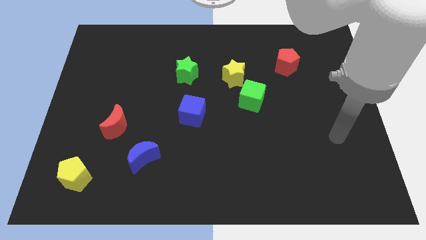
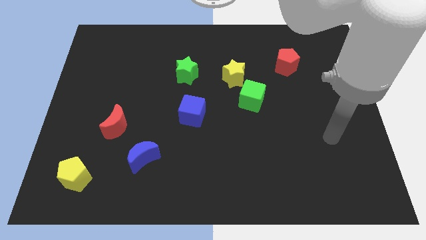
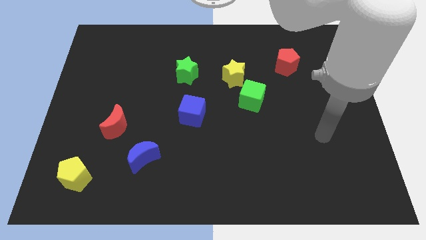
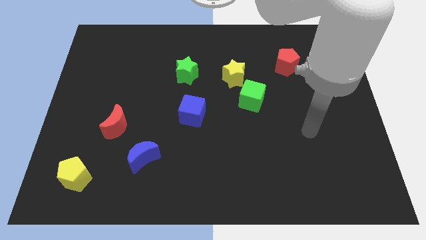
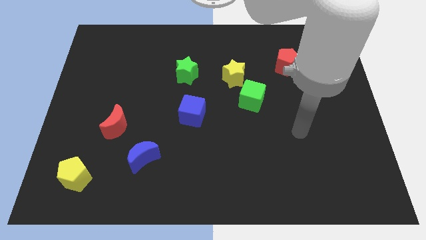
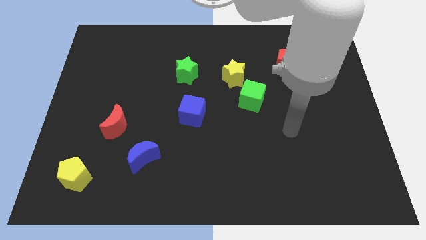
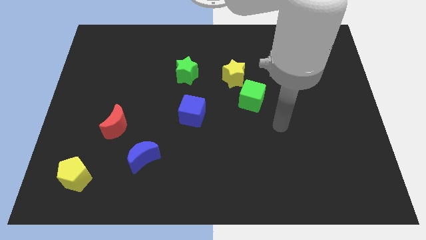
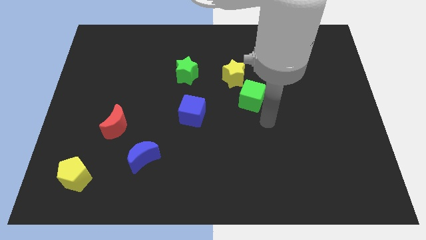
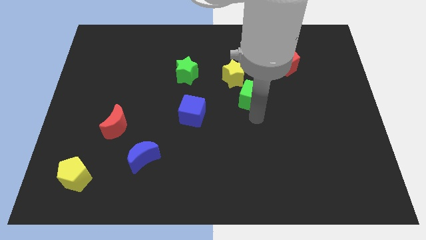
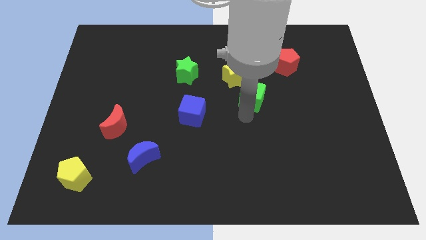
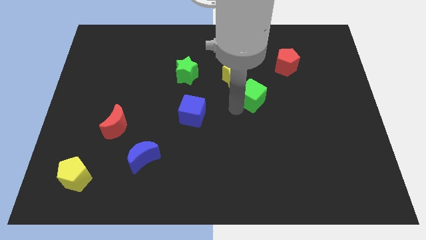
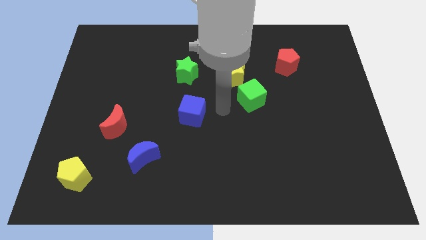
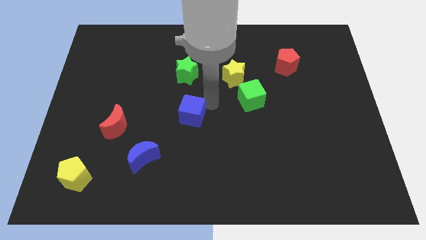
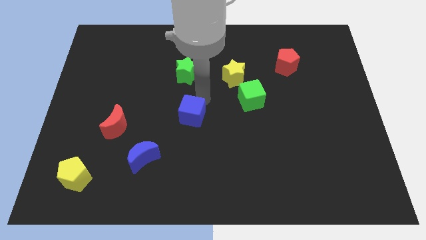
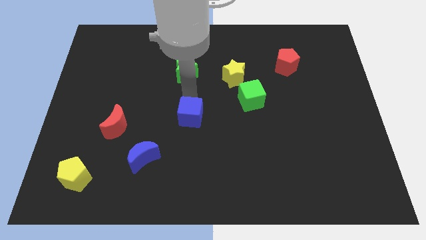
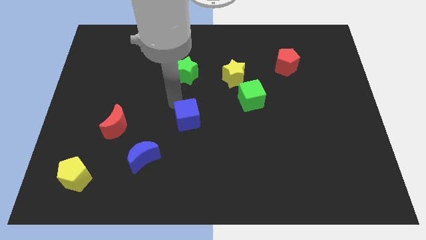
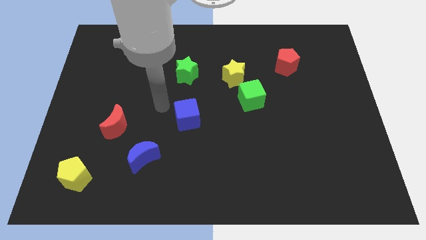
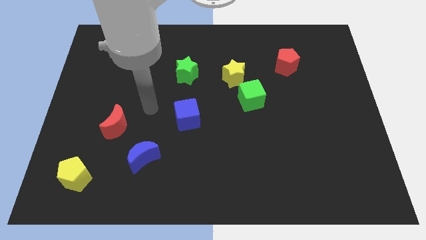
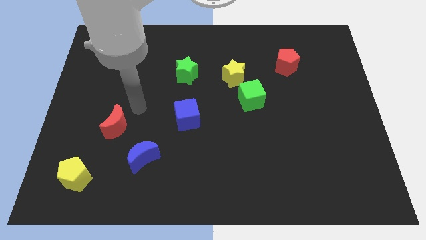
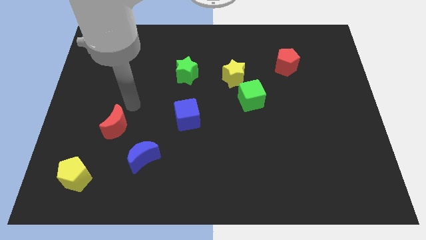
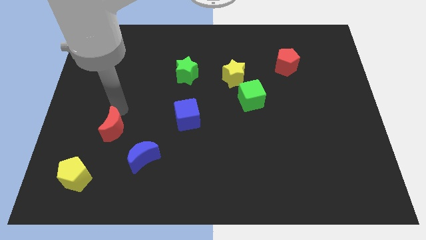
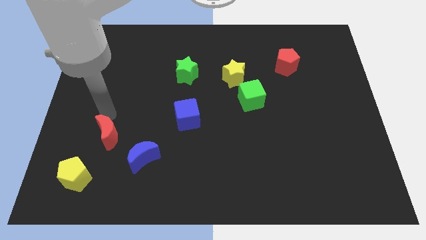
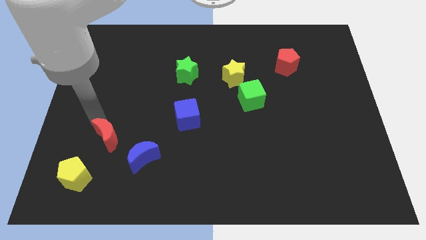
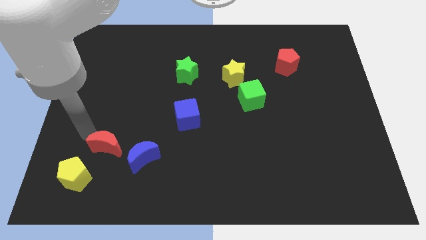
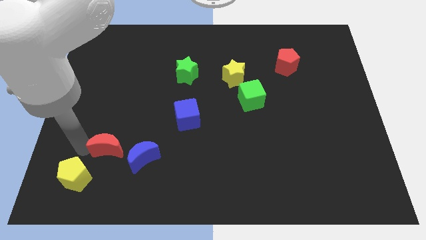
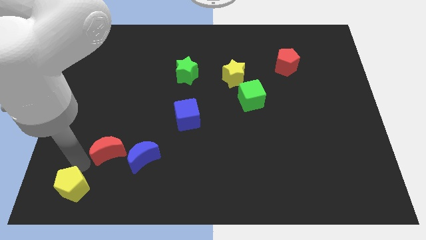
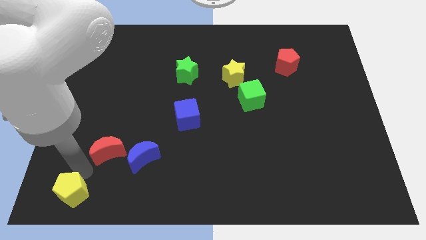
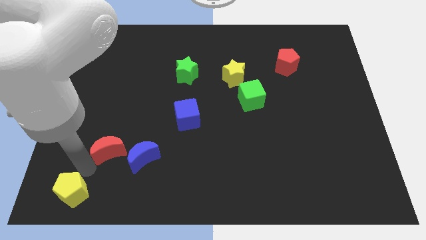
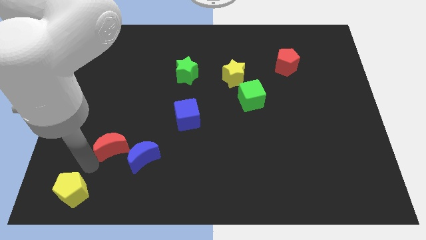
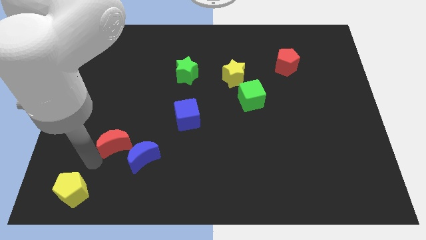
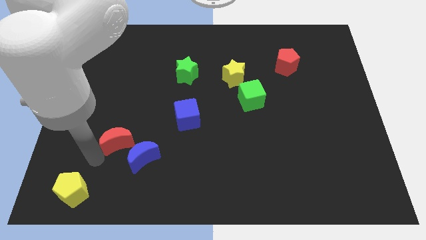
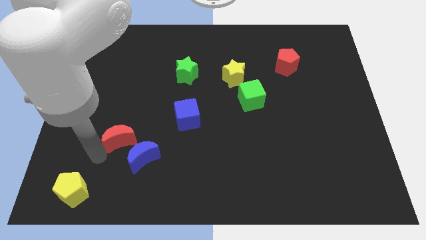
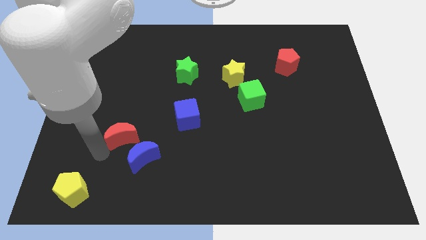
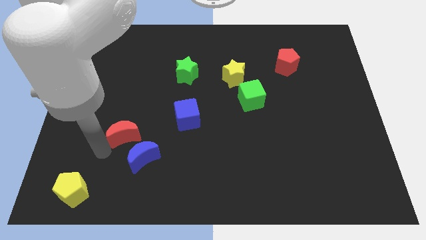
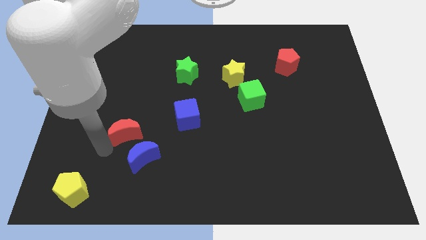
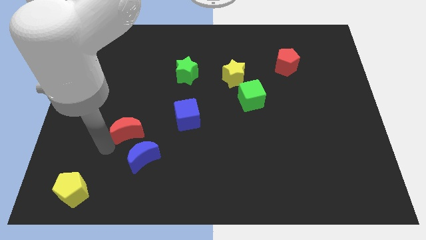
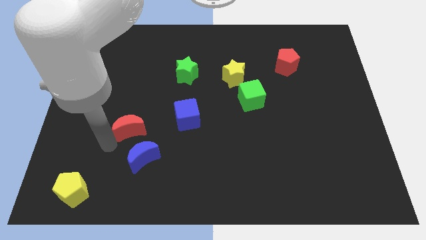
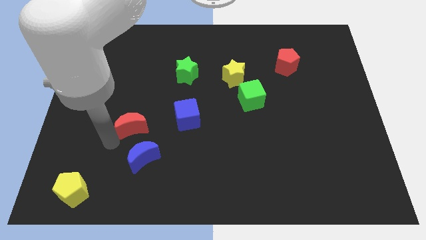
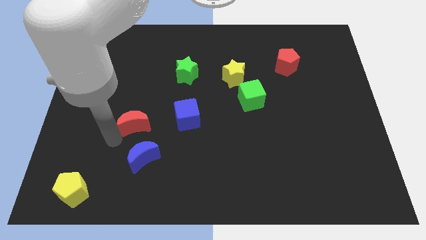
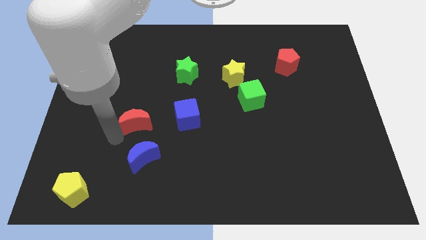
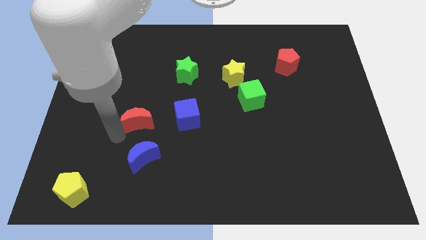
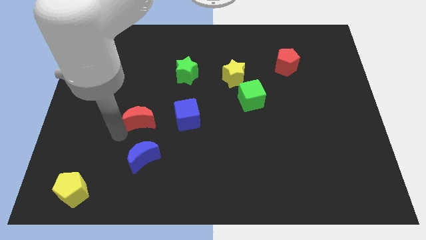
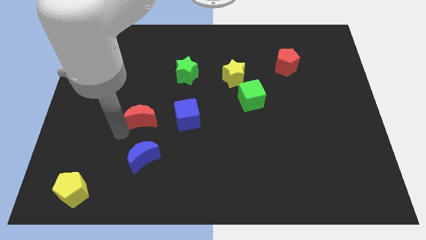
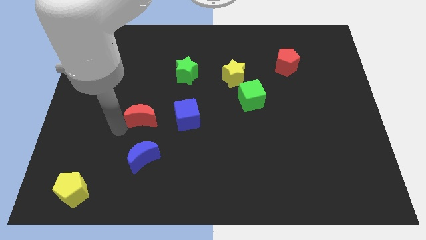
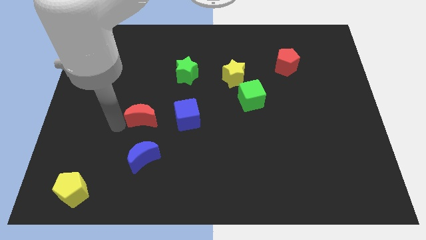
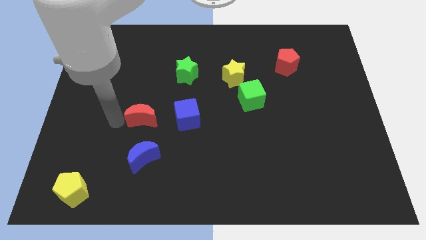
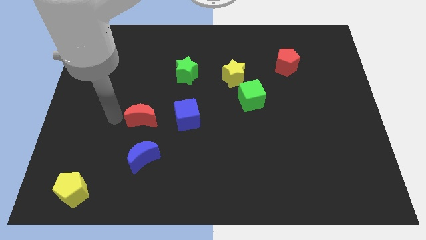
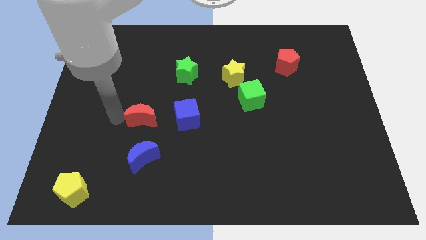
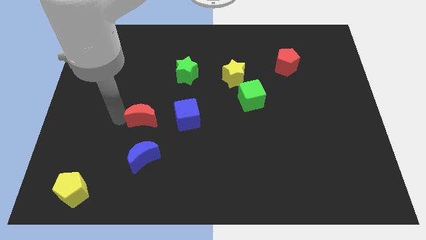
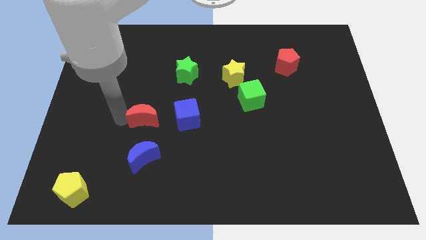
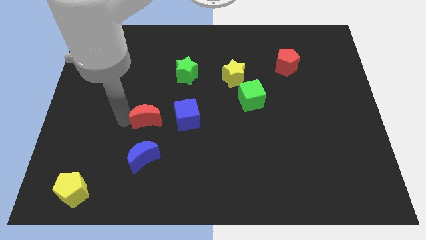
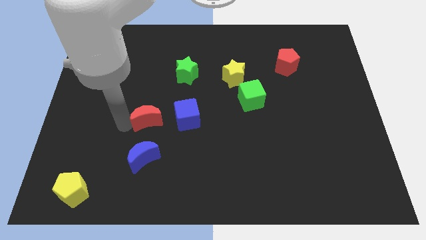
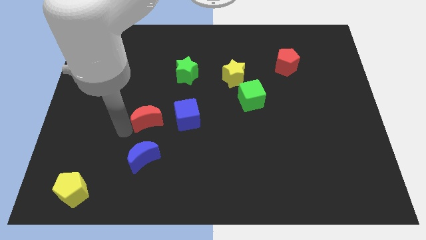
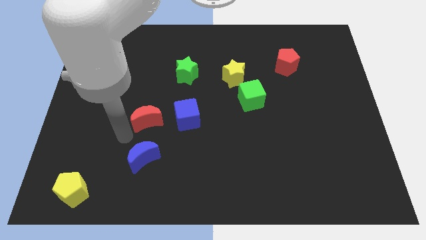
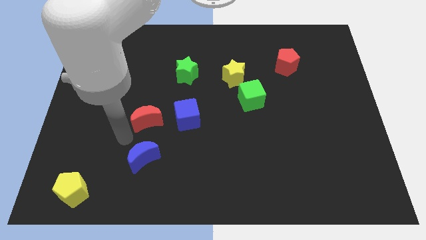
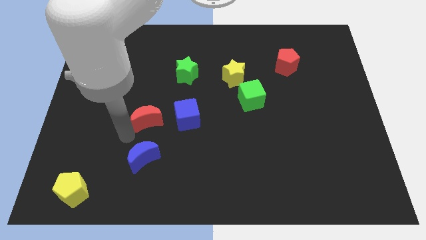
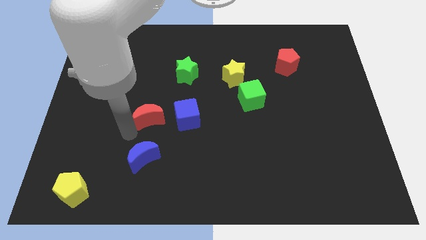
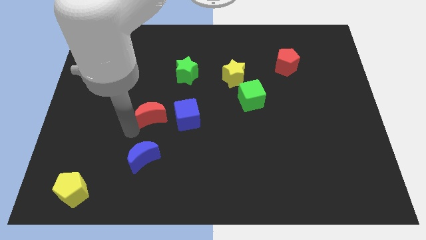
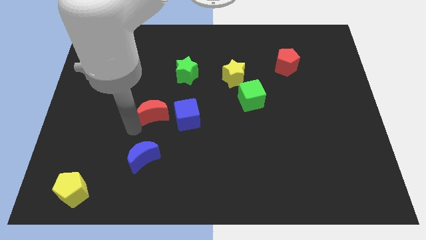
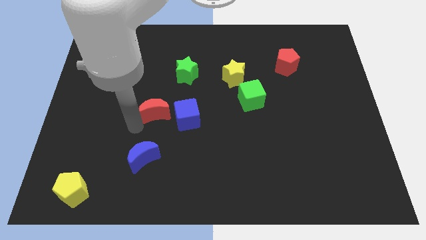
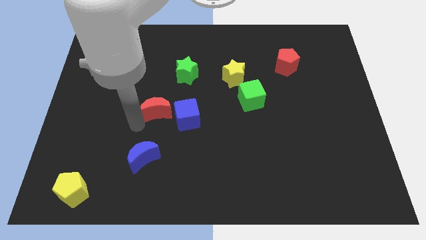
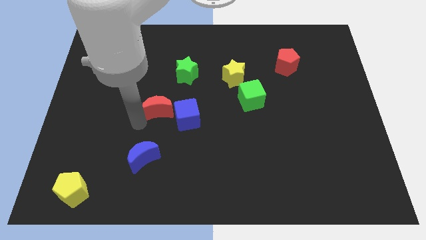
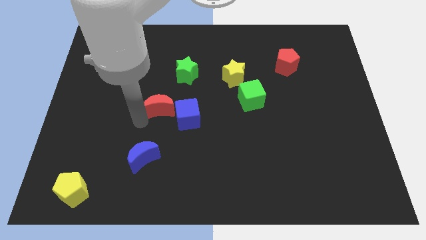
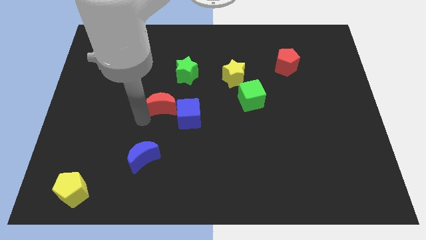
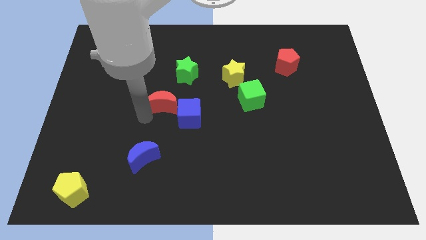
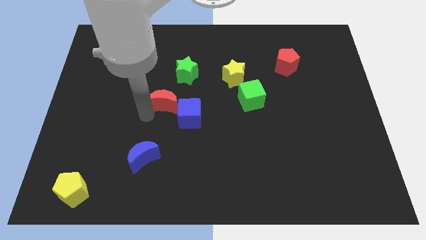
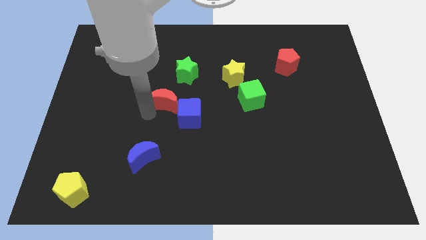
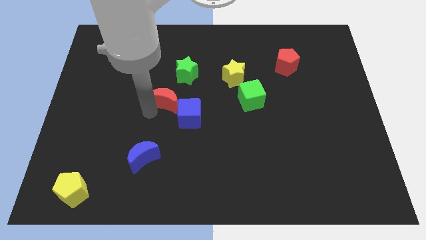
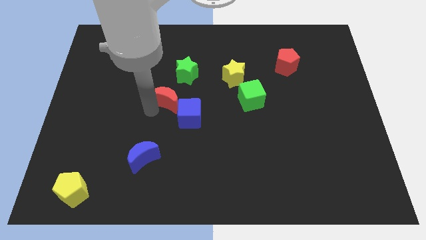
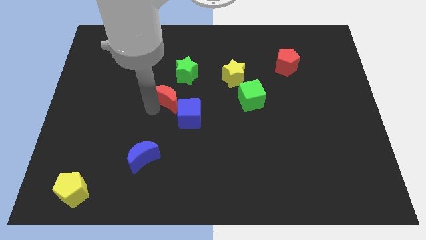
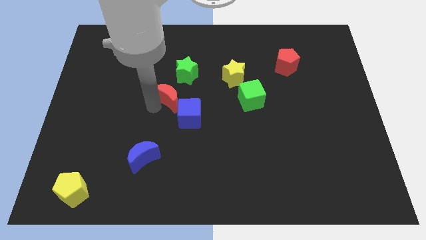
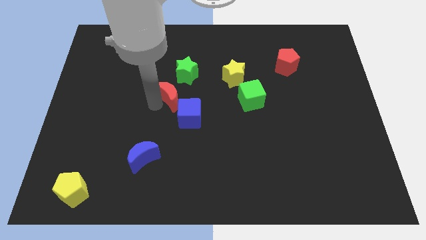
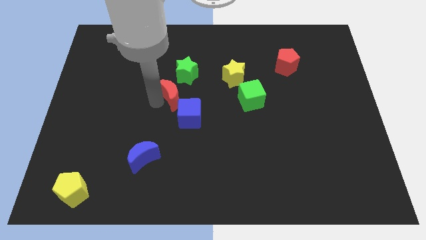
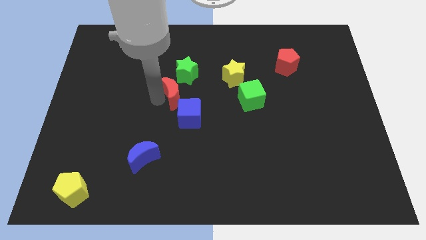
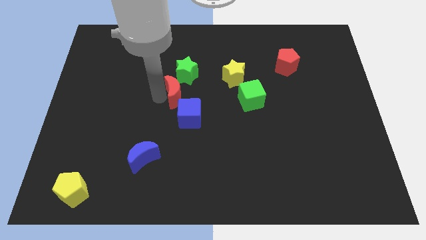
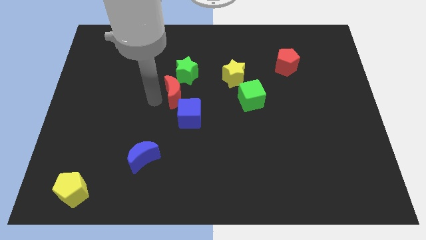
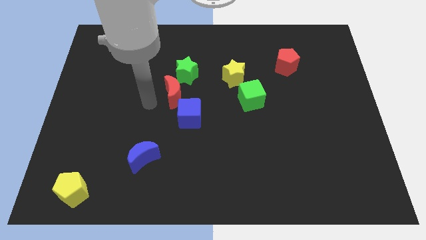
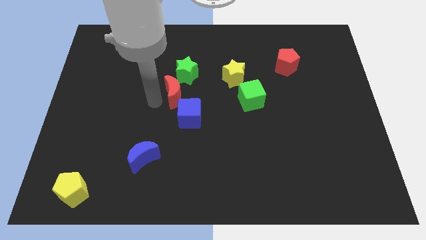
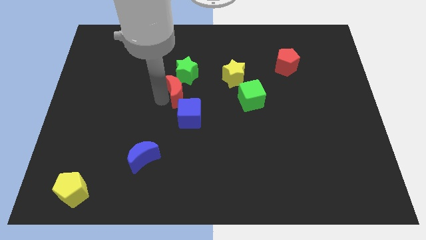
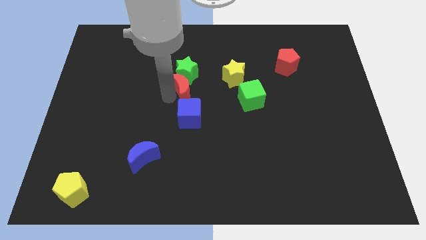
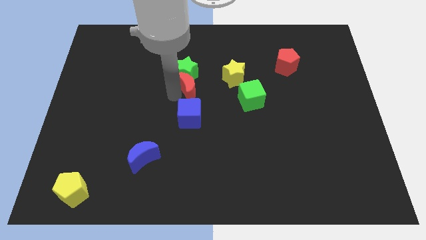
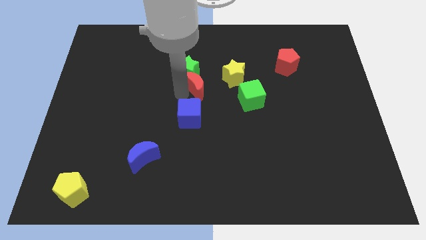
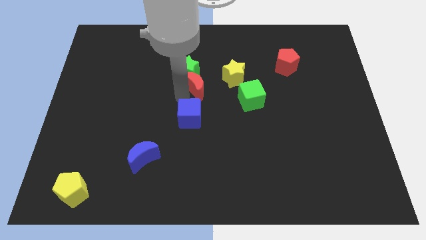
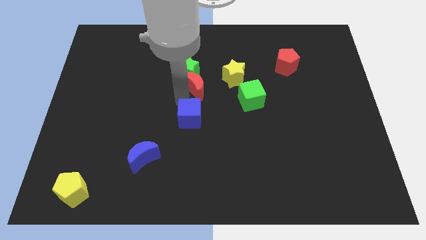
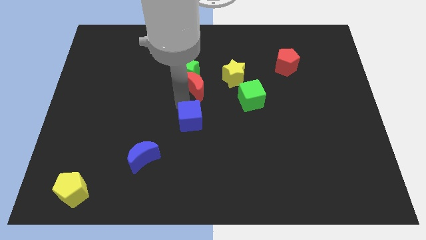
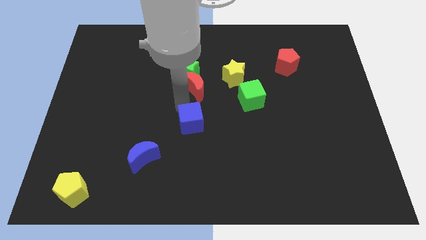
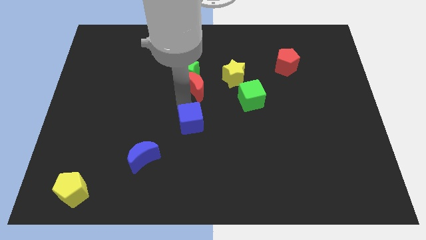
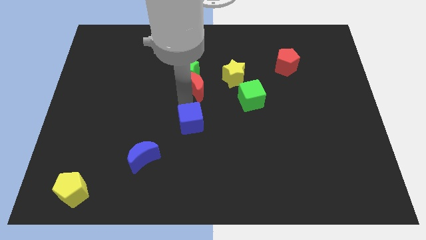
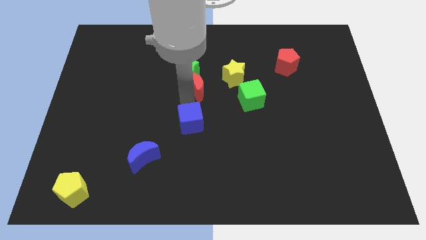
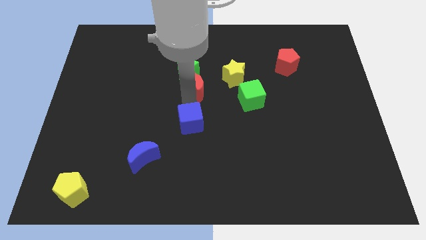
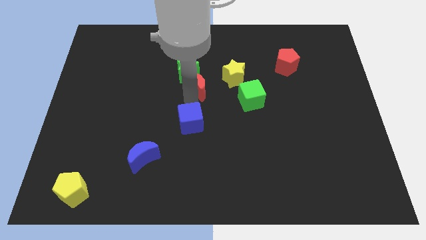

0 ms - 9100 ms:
push the red moon upwards and then right
